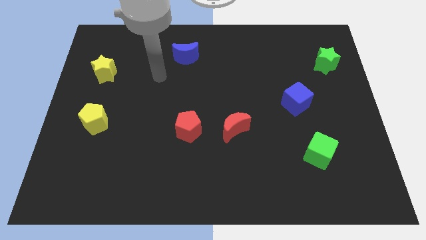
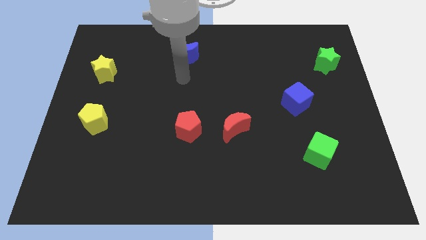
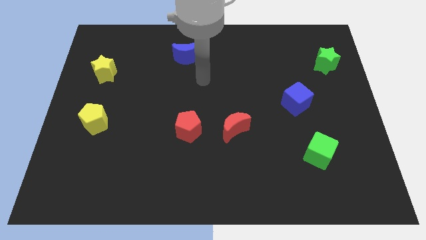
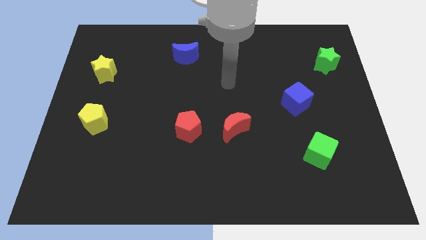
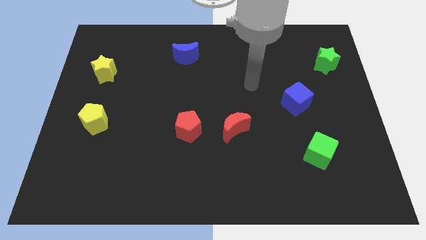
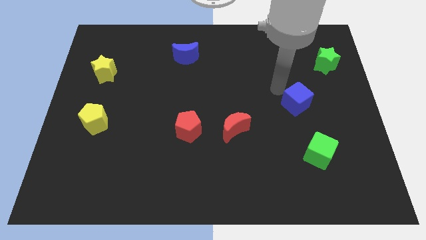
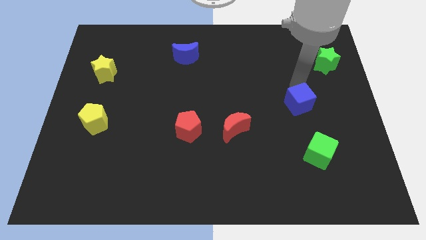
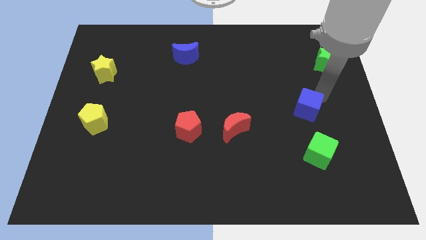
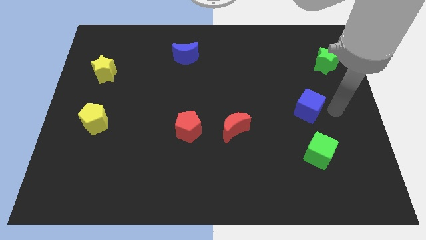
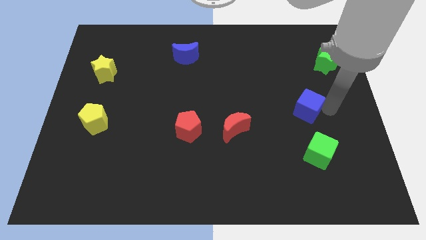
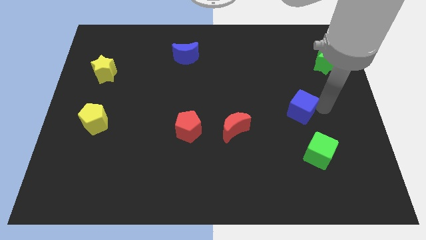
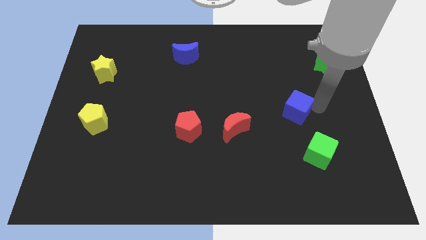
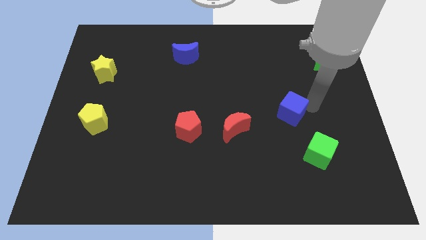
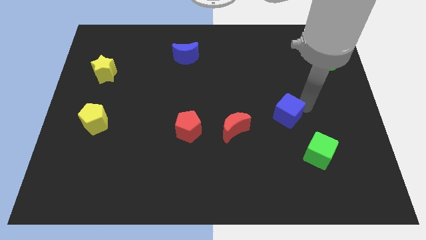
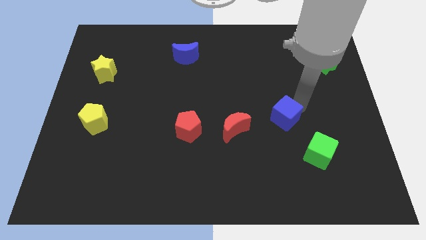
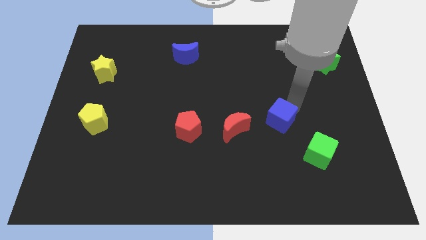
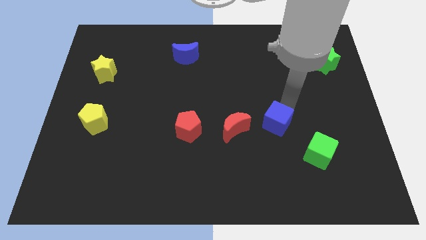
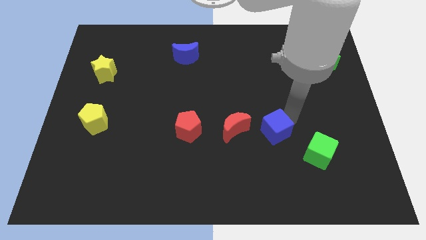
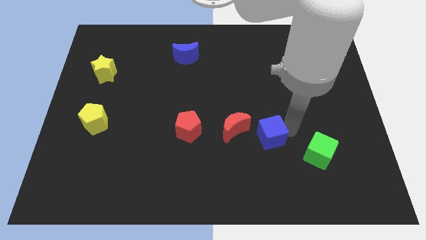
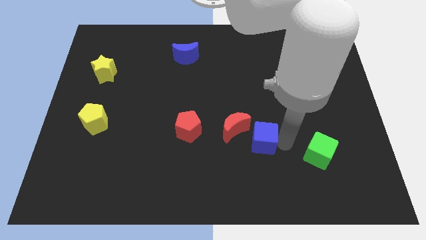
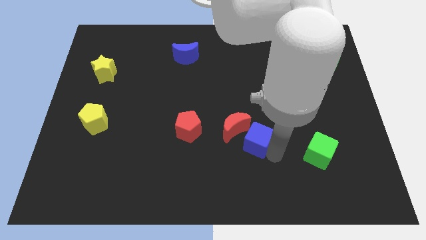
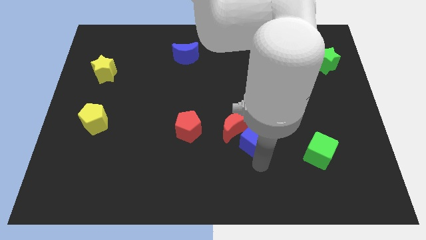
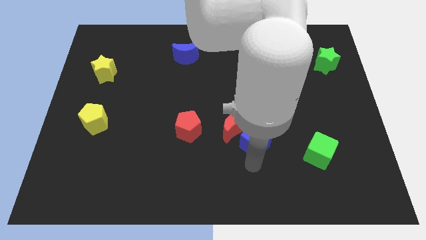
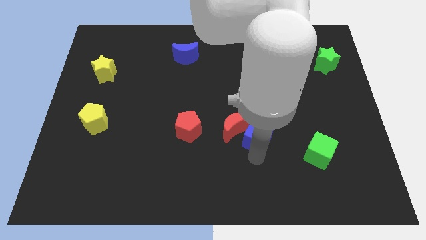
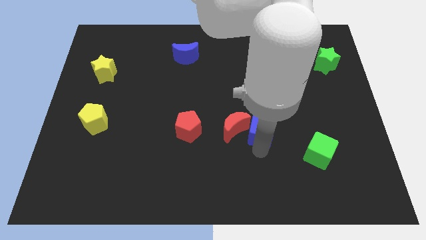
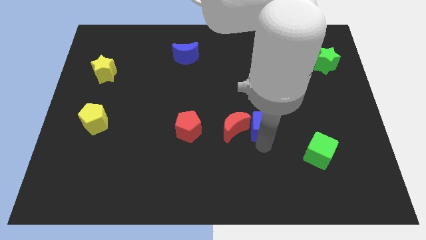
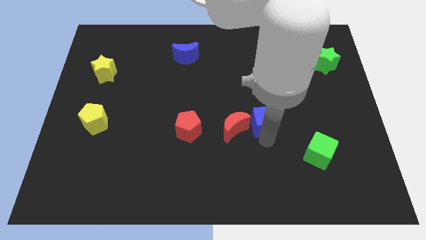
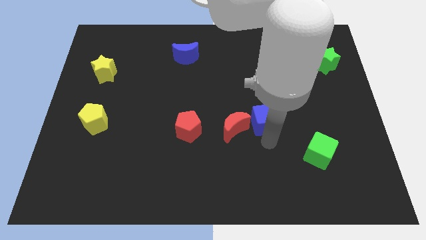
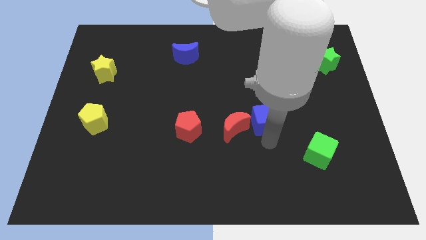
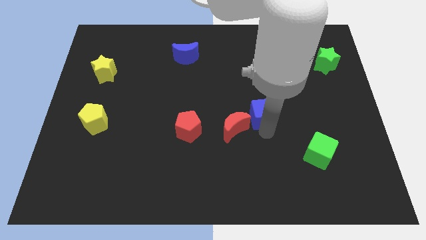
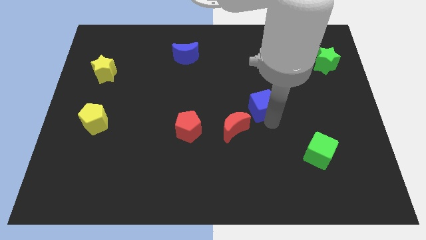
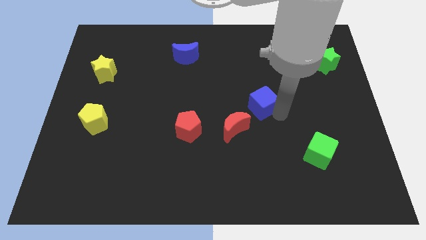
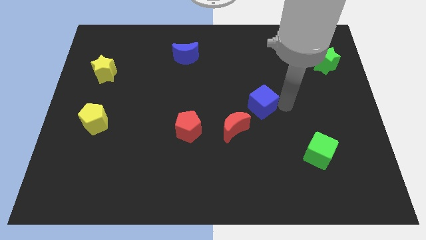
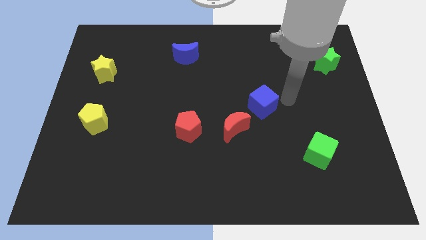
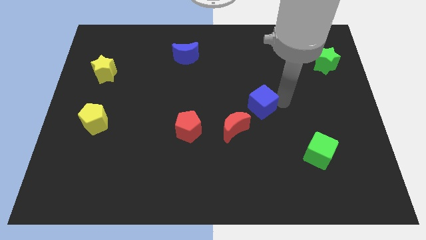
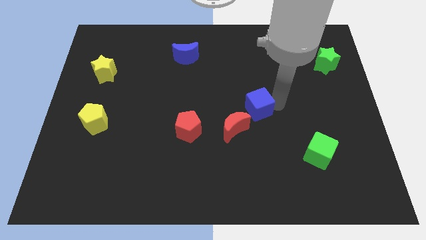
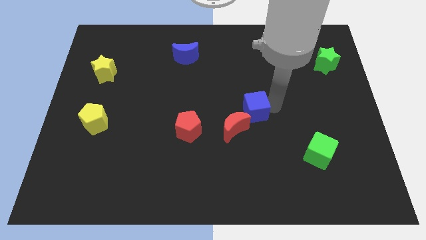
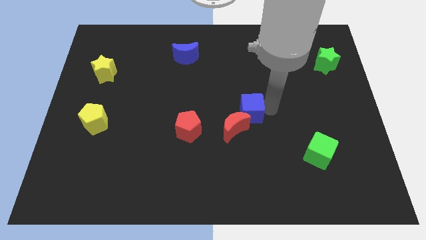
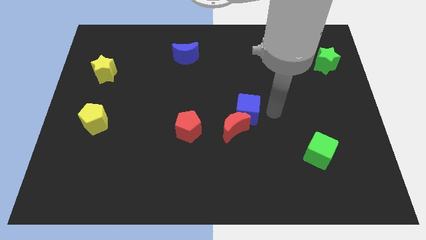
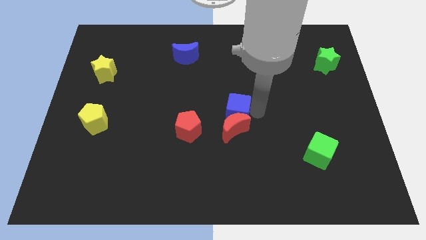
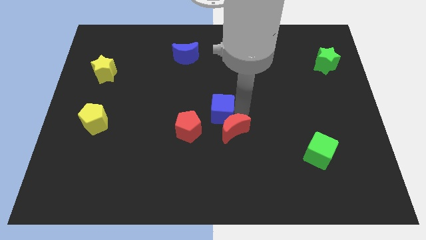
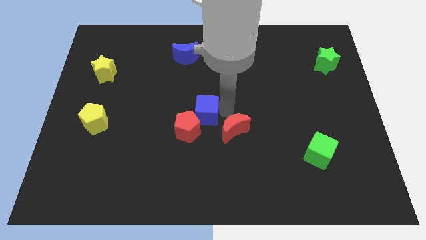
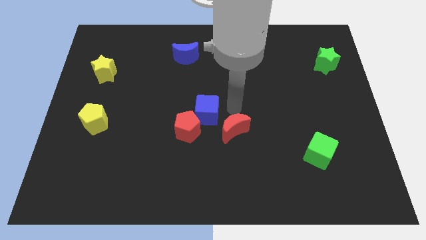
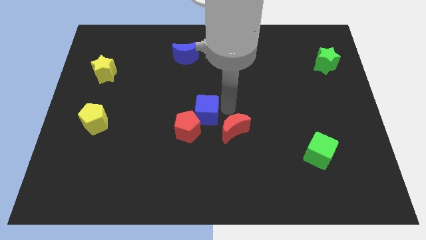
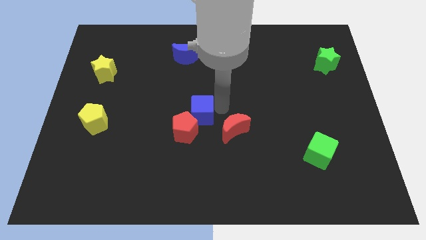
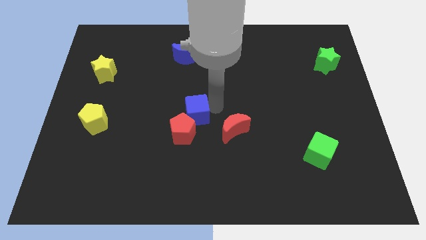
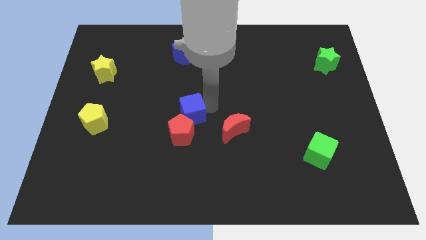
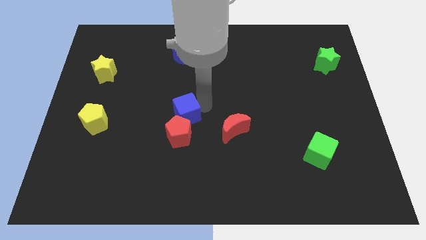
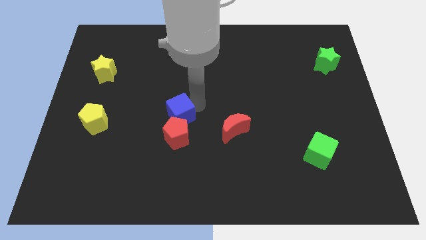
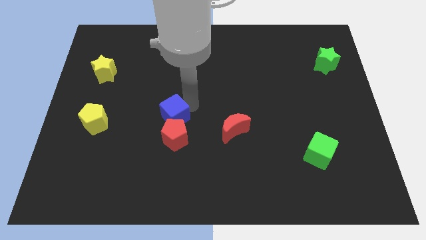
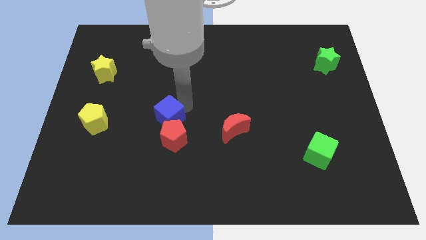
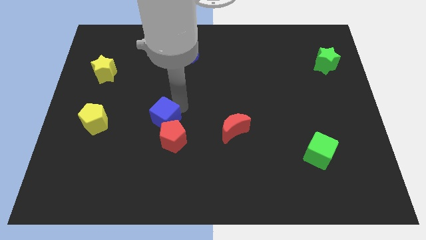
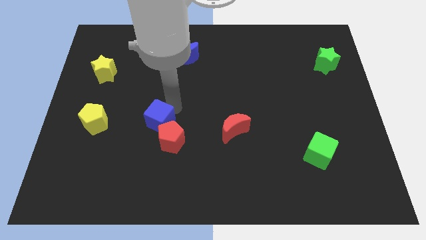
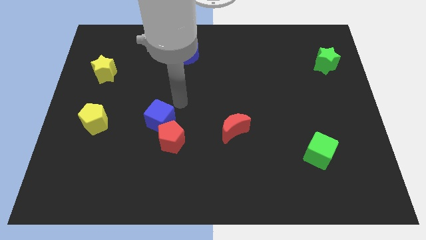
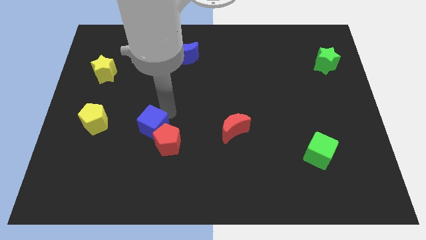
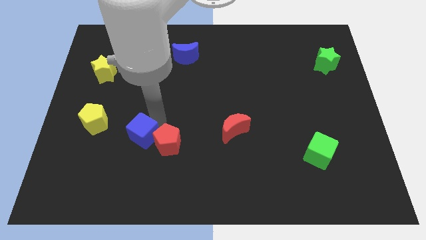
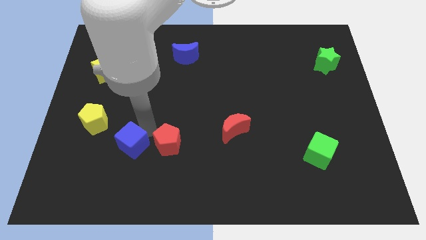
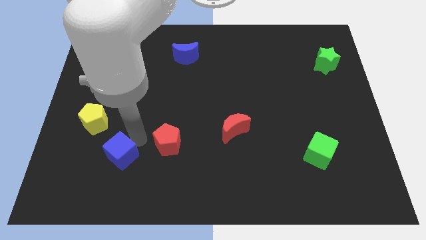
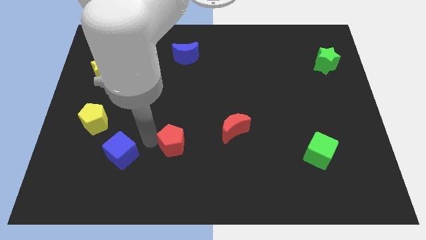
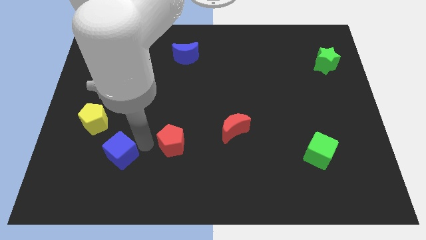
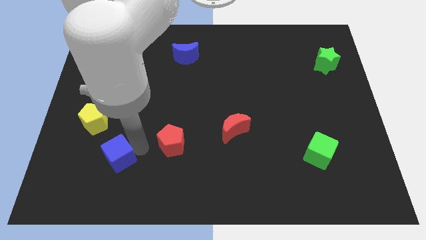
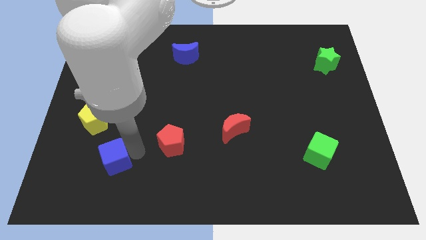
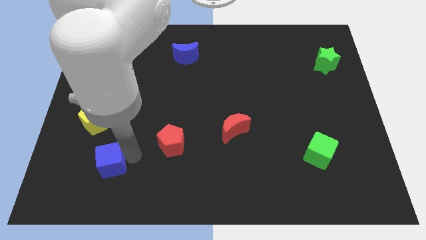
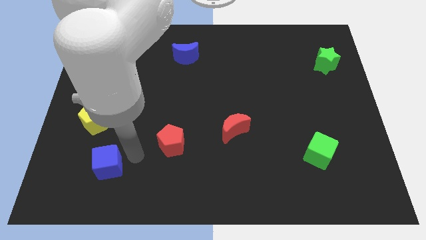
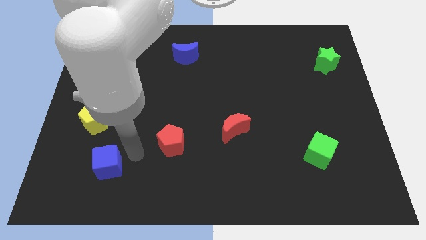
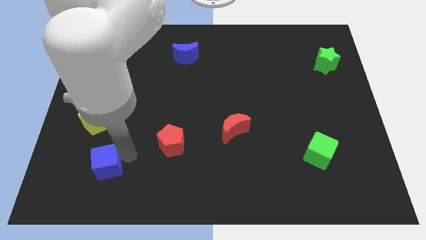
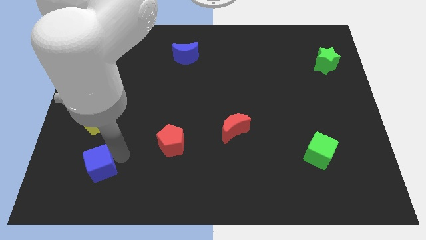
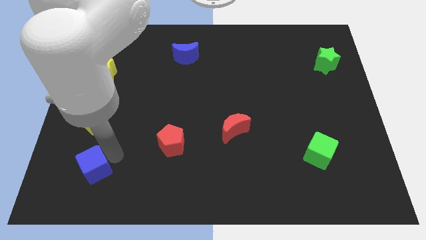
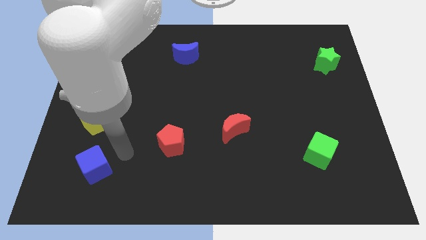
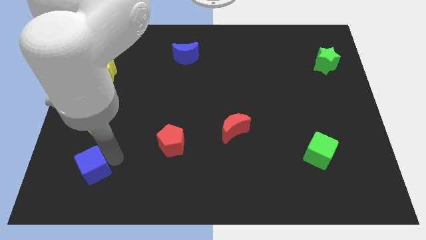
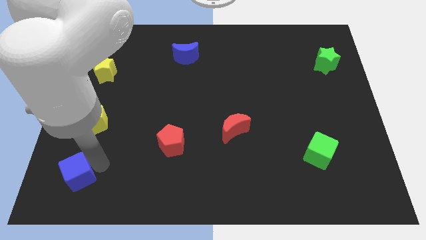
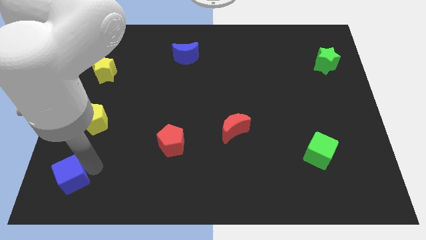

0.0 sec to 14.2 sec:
push the blue cube to the bottom left corner
